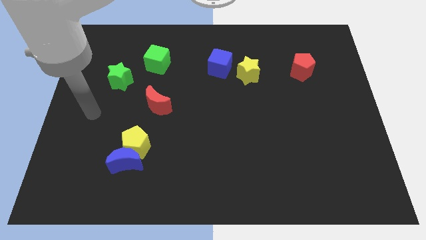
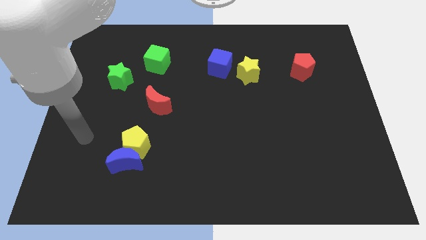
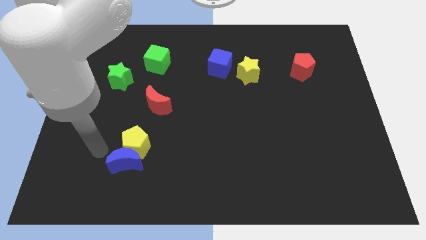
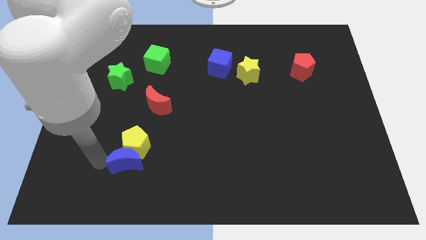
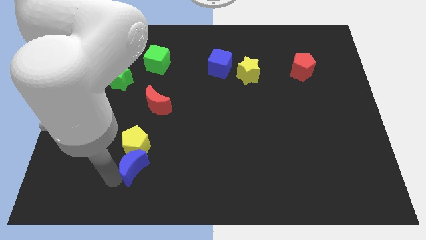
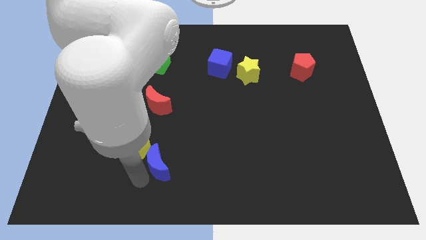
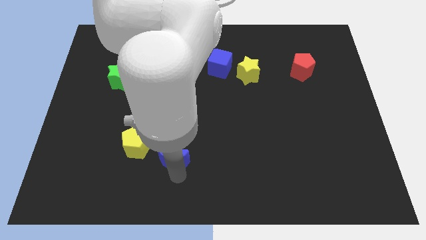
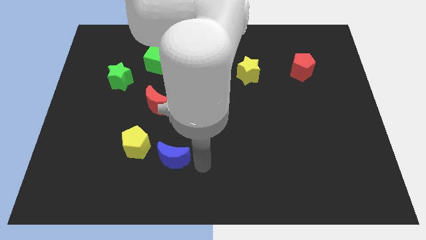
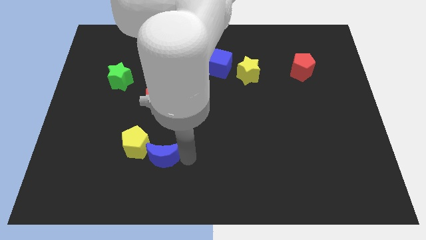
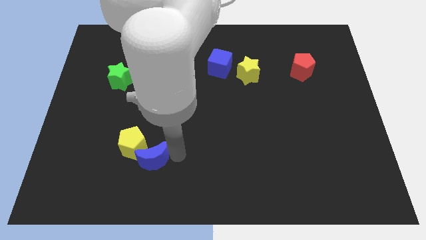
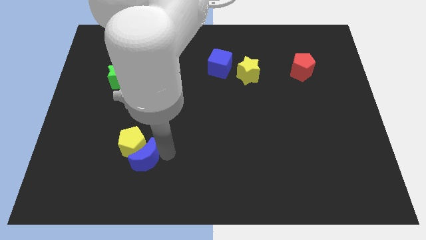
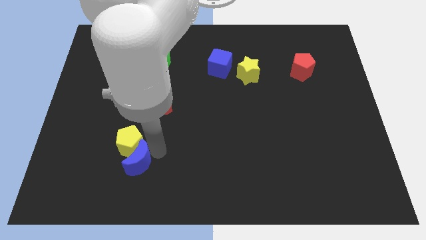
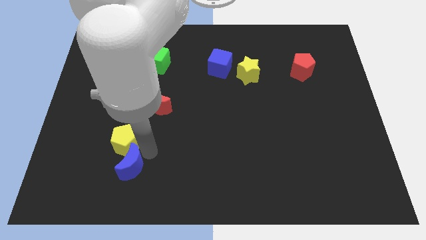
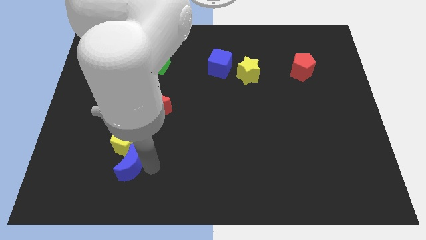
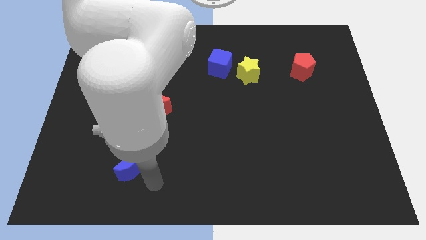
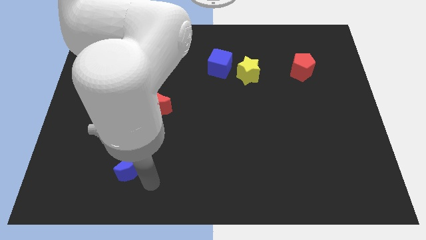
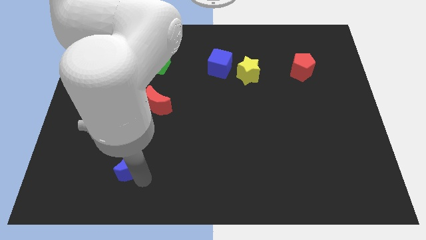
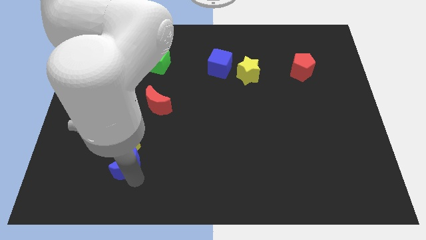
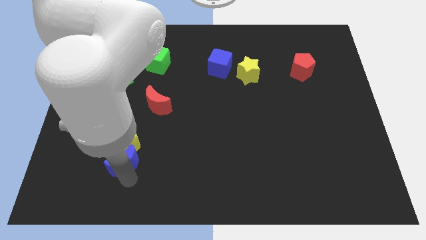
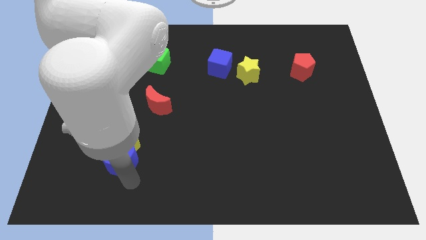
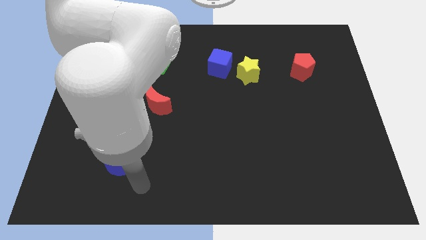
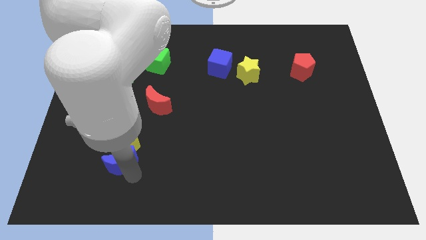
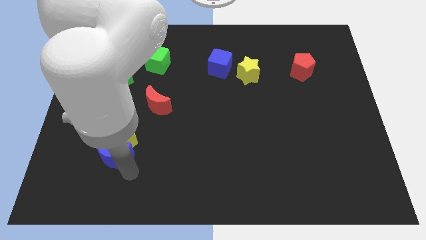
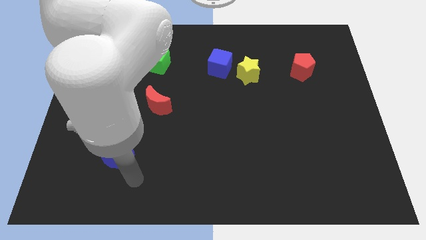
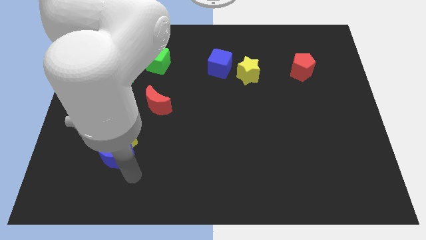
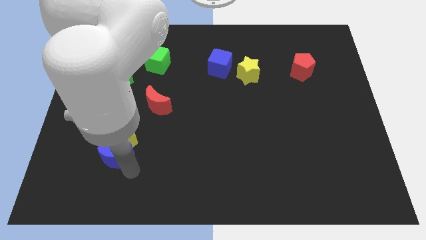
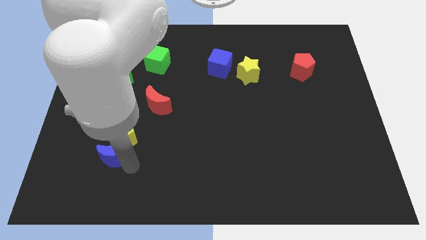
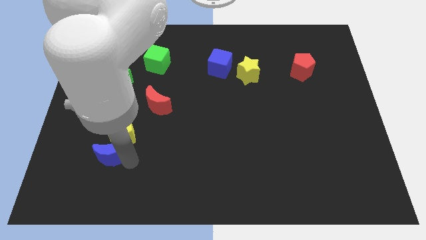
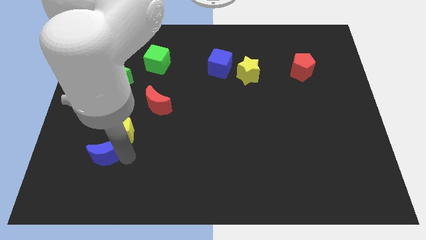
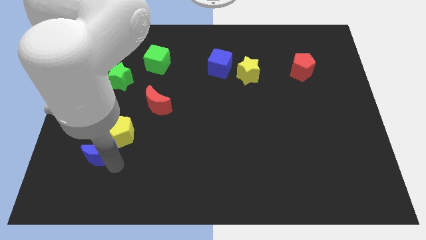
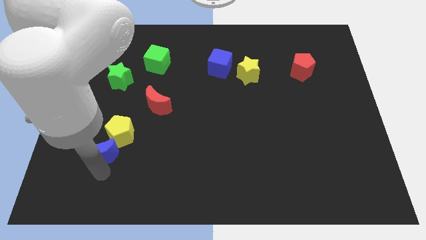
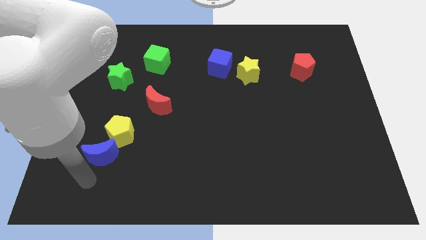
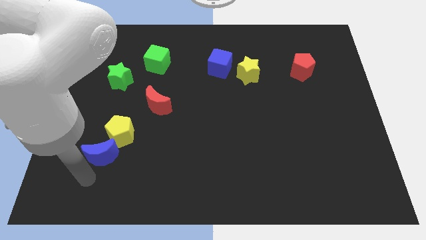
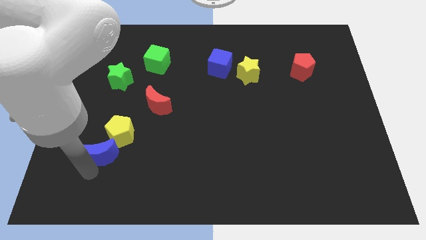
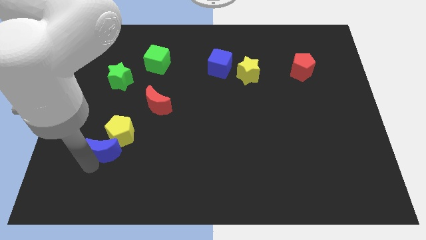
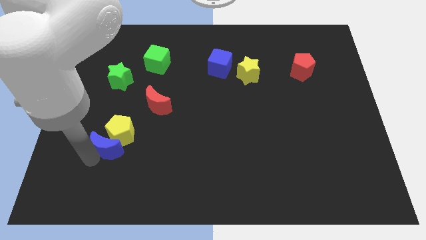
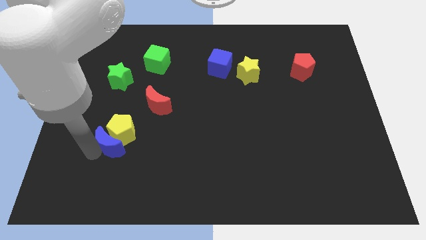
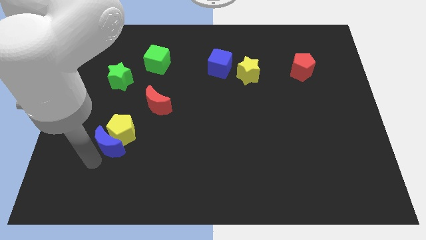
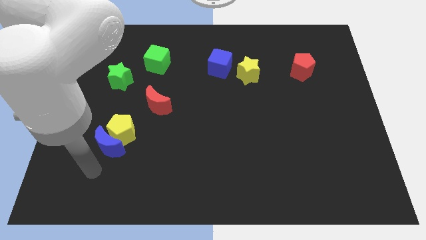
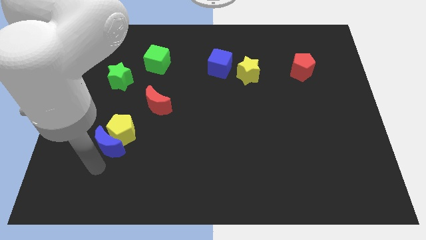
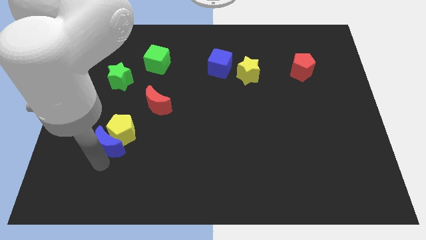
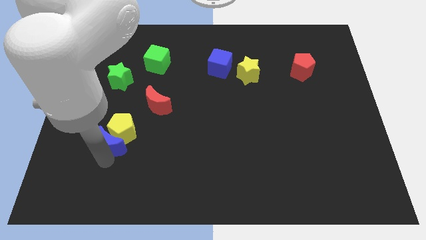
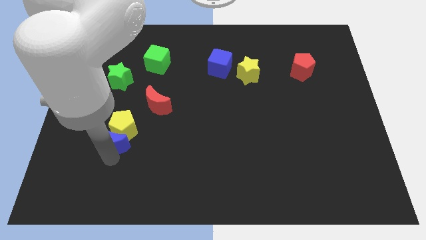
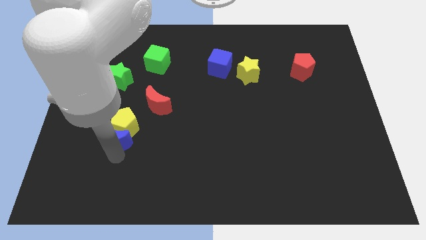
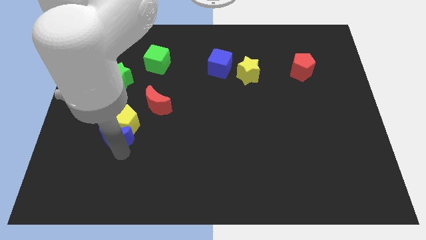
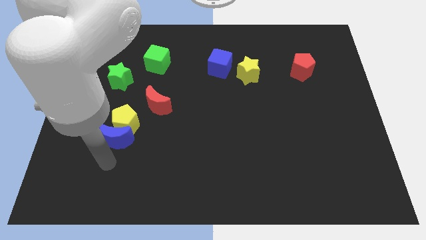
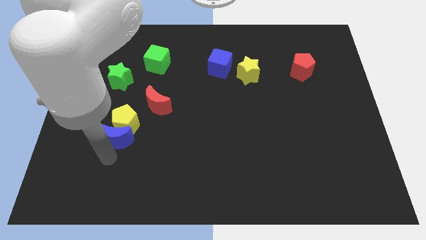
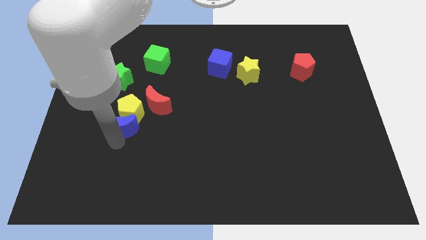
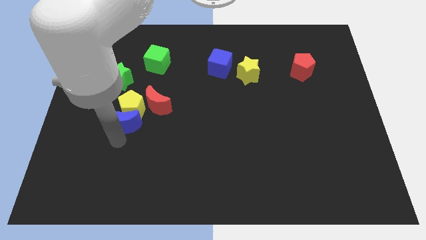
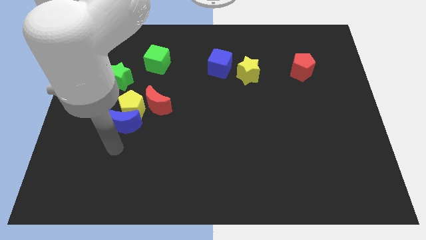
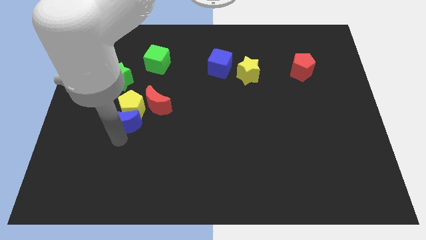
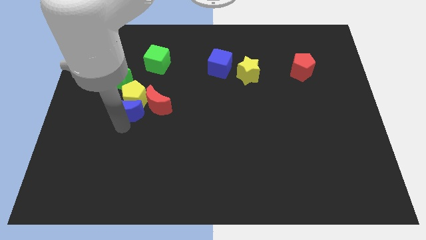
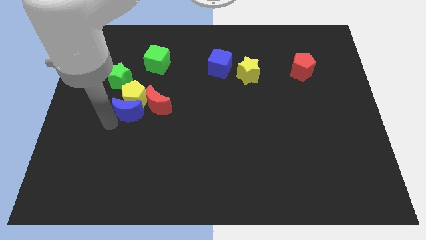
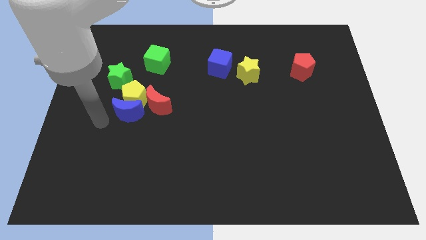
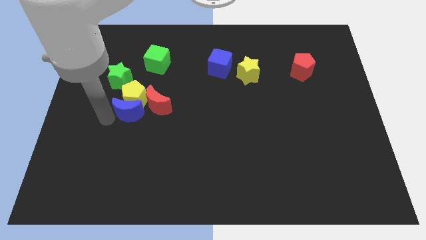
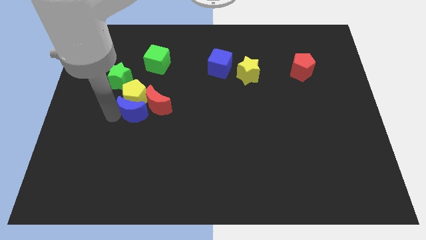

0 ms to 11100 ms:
push the blue moon towards the red moon

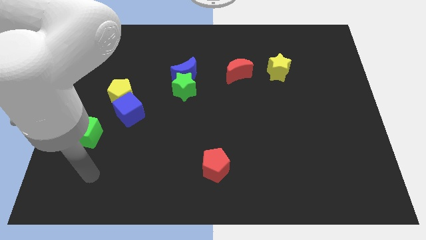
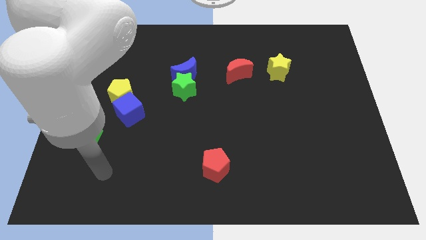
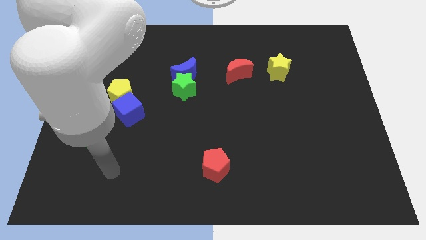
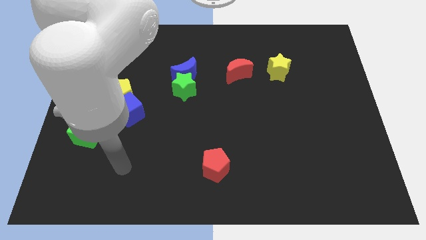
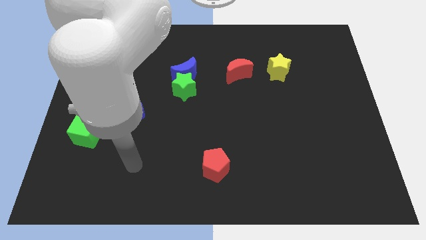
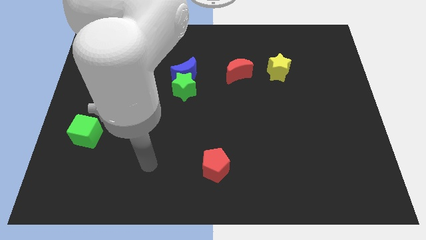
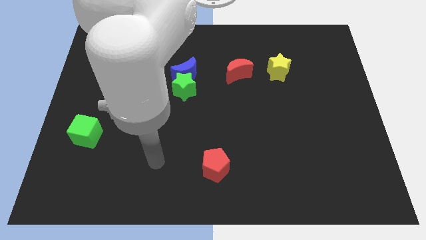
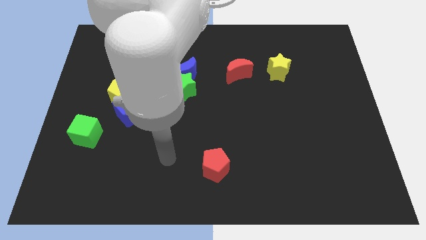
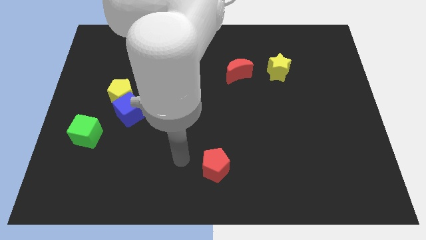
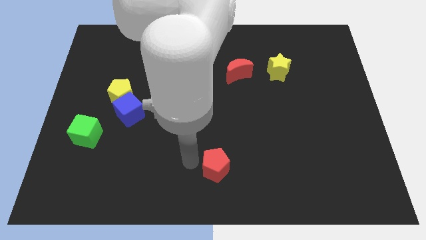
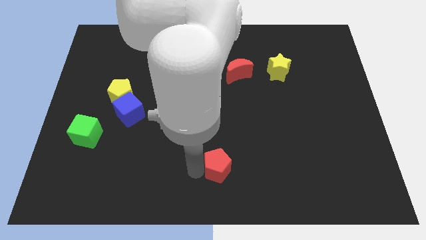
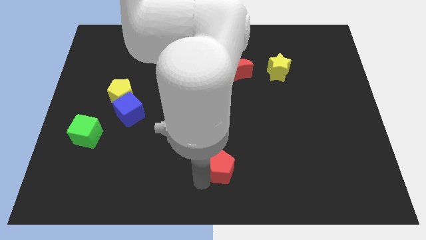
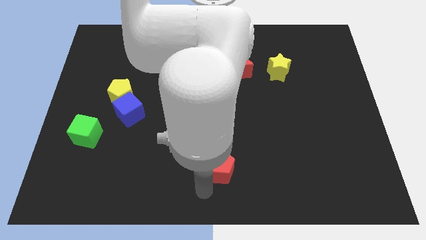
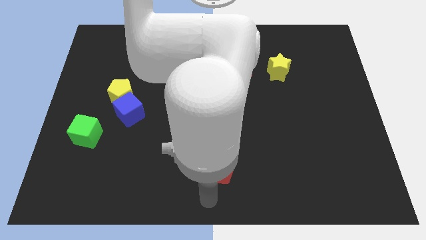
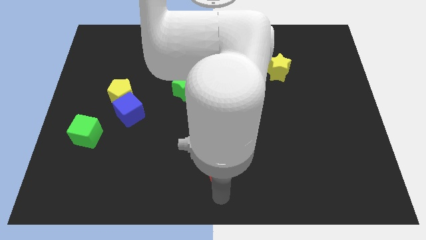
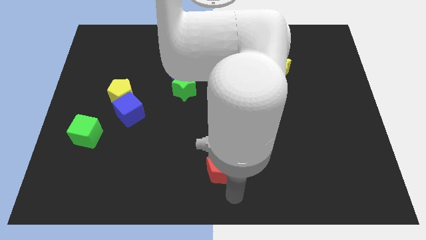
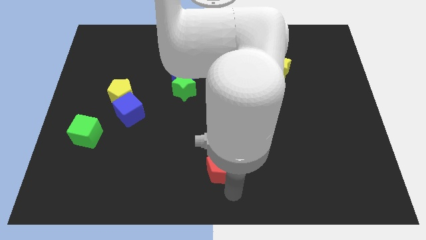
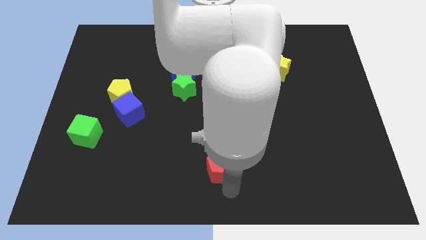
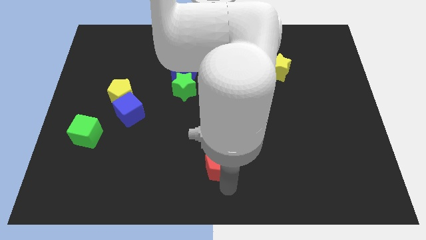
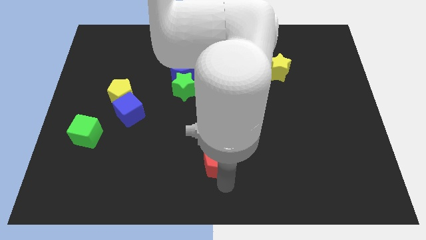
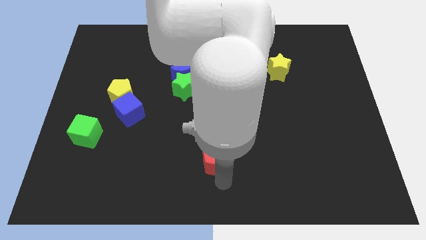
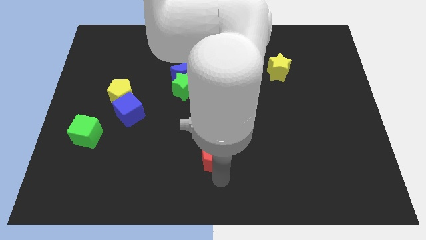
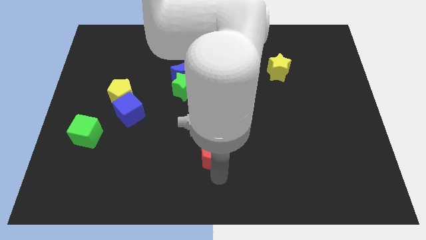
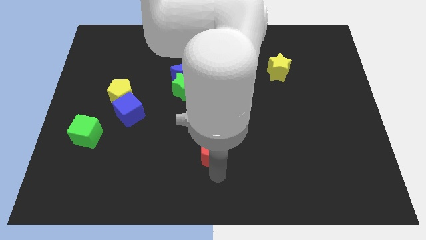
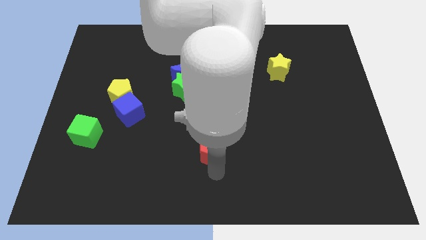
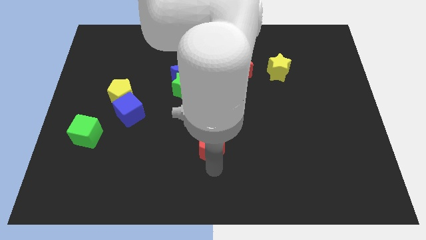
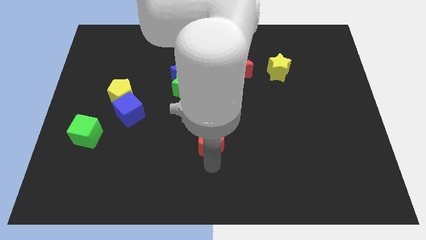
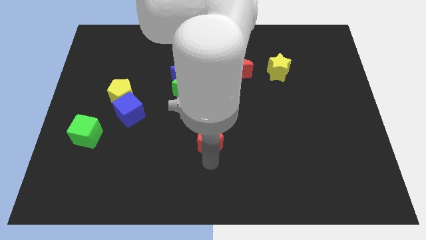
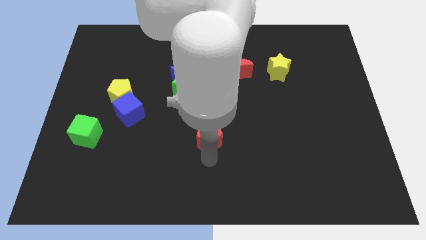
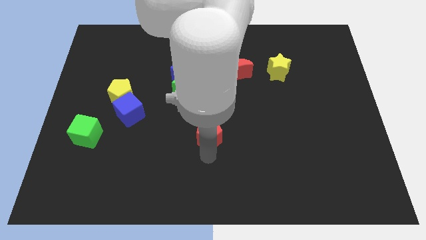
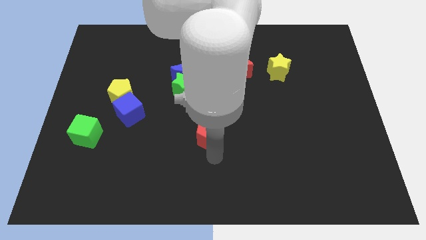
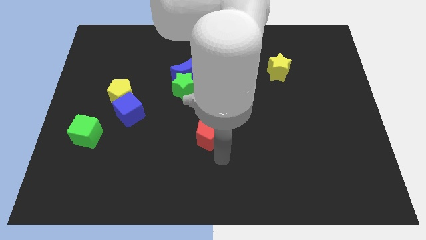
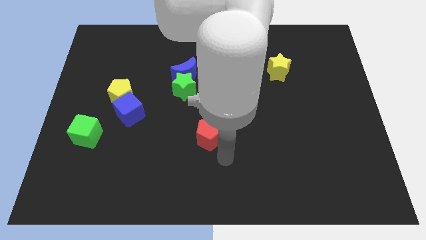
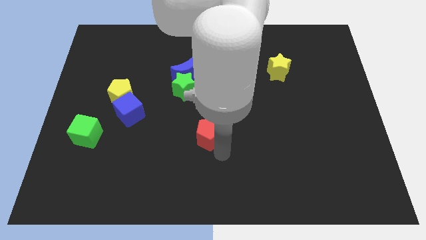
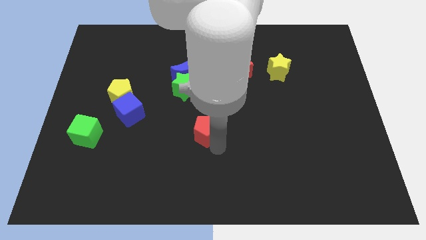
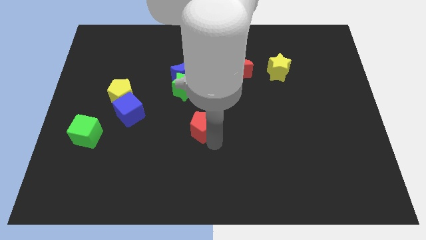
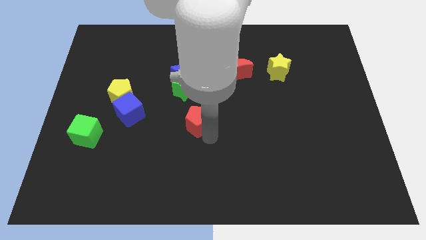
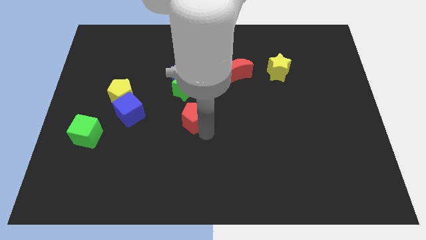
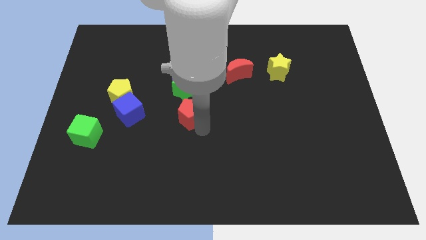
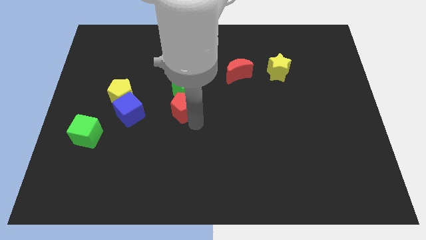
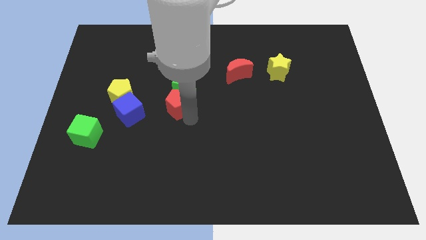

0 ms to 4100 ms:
slide the red pentagon close to the green star
